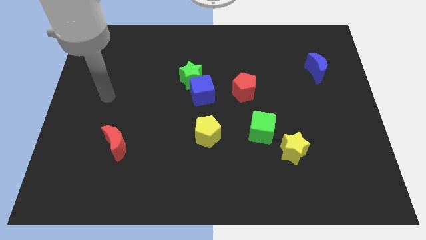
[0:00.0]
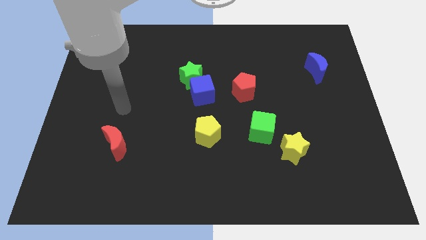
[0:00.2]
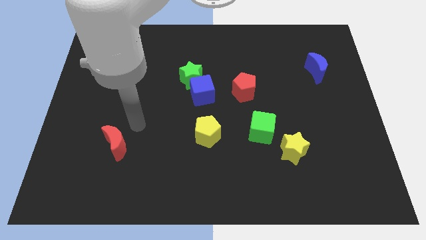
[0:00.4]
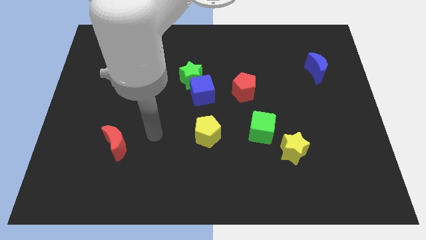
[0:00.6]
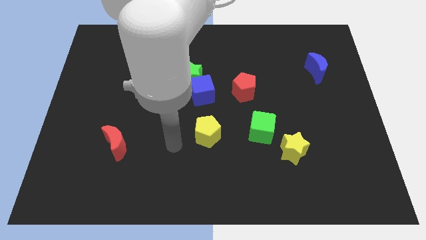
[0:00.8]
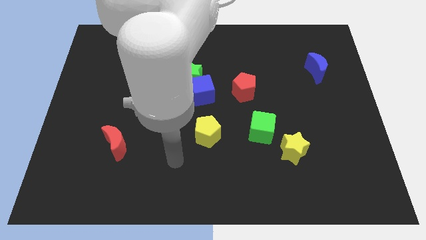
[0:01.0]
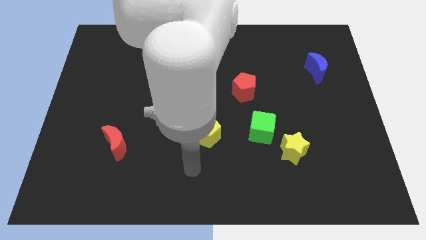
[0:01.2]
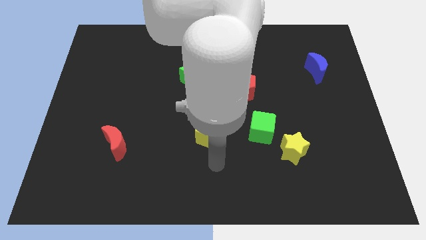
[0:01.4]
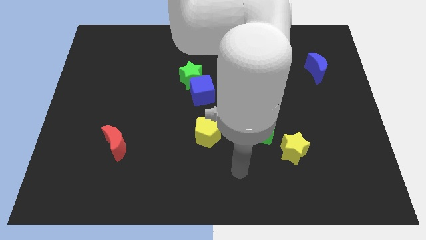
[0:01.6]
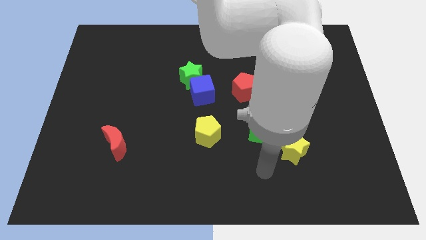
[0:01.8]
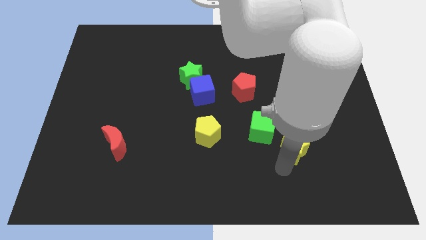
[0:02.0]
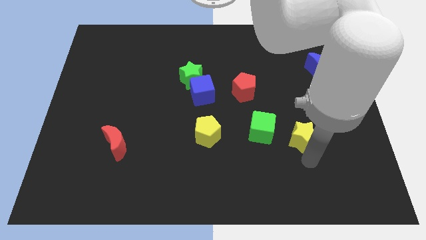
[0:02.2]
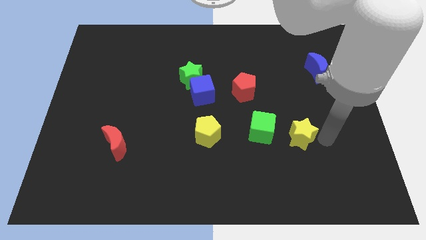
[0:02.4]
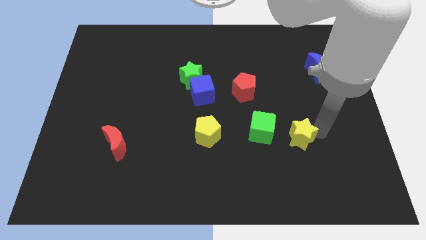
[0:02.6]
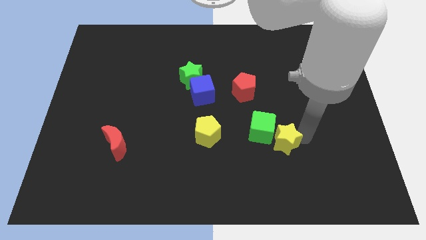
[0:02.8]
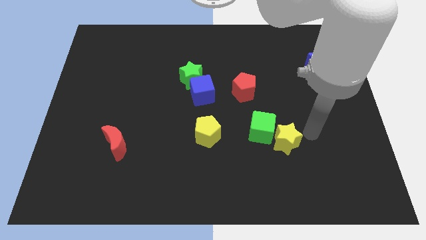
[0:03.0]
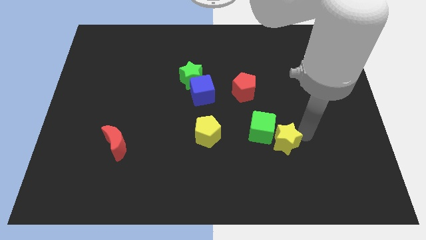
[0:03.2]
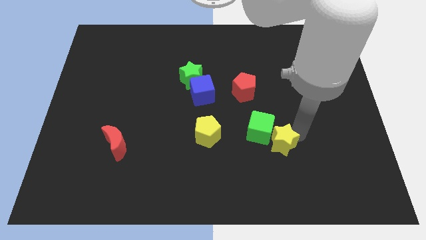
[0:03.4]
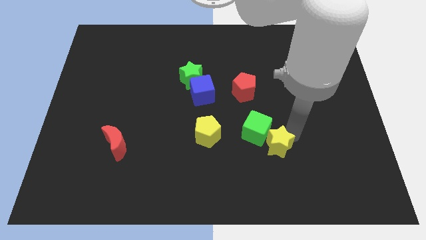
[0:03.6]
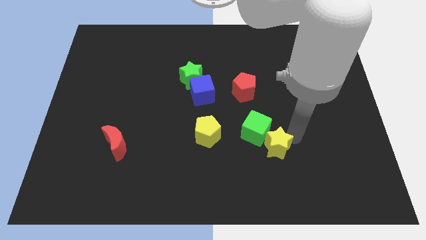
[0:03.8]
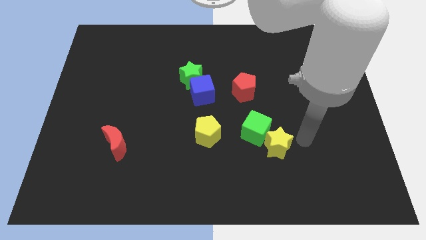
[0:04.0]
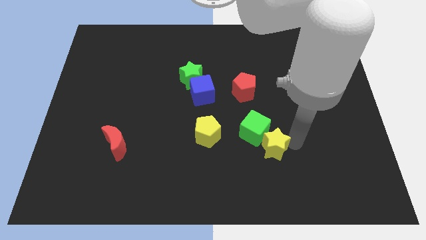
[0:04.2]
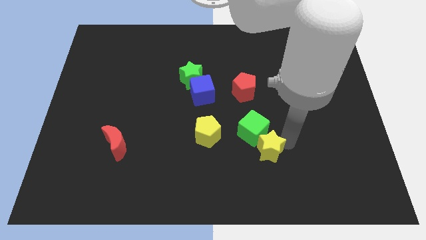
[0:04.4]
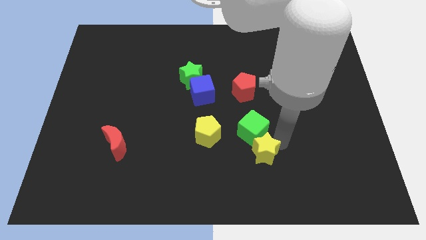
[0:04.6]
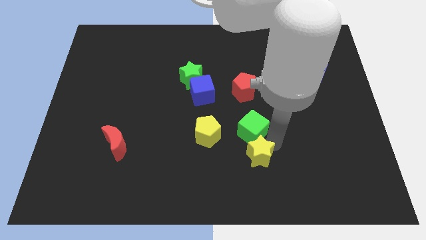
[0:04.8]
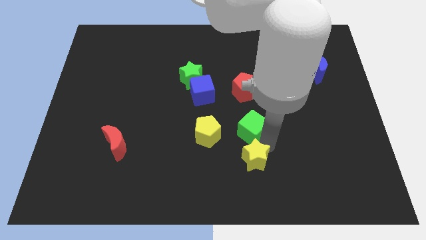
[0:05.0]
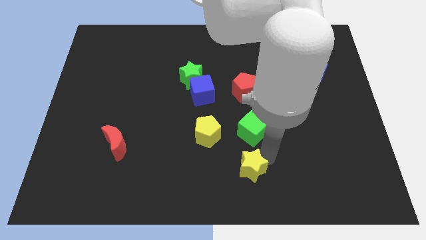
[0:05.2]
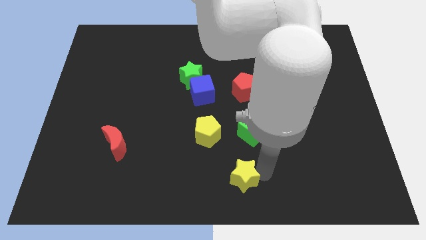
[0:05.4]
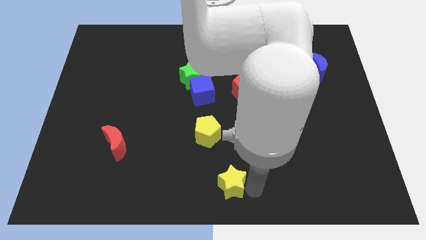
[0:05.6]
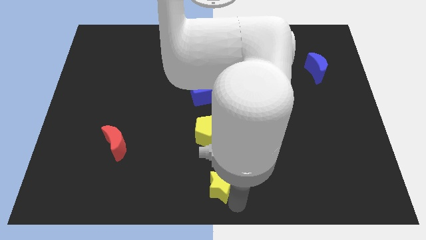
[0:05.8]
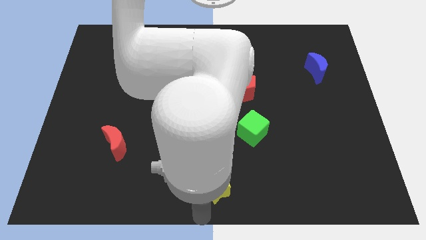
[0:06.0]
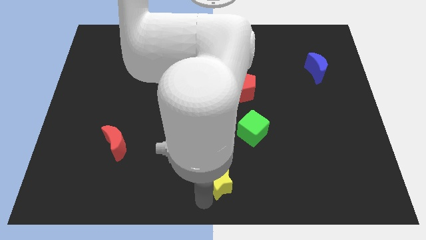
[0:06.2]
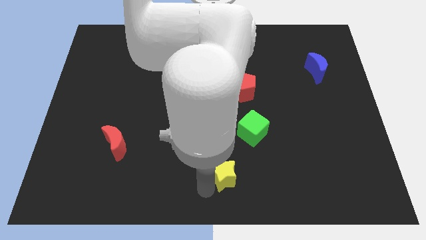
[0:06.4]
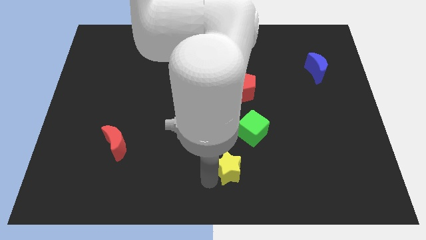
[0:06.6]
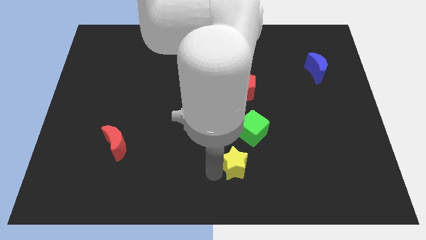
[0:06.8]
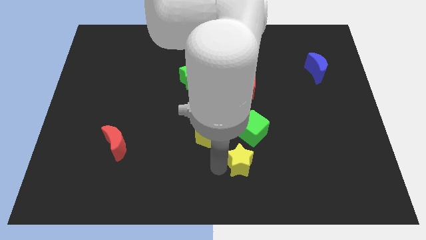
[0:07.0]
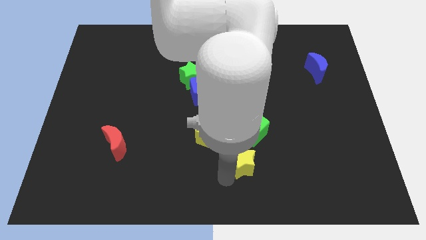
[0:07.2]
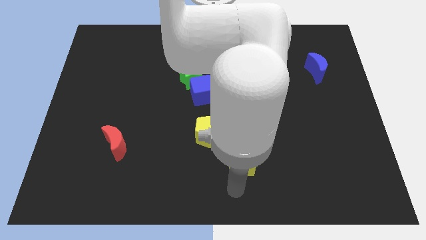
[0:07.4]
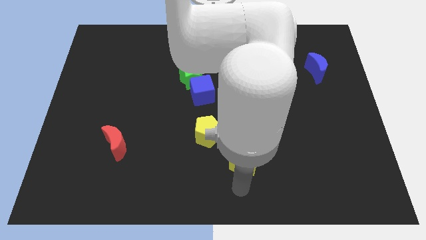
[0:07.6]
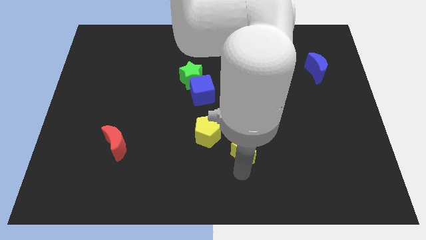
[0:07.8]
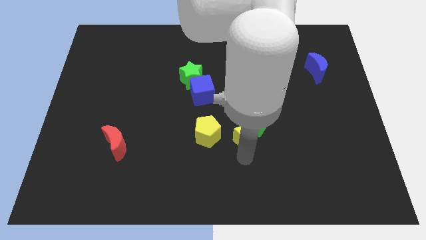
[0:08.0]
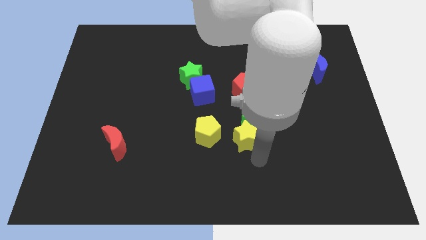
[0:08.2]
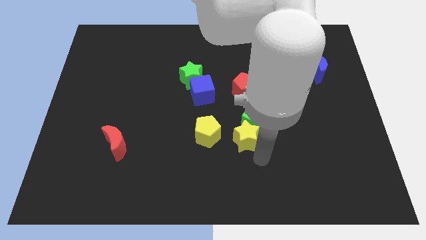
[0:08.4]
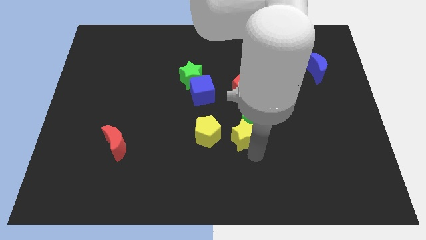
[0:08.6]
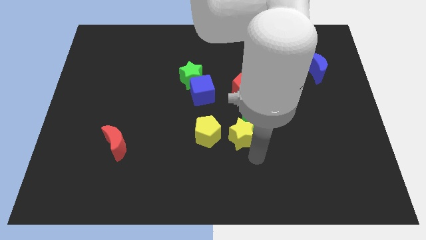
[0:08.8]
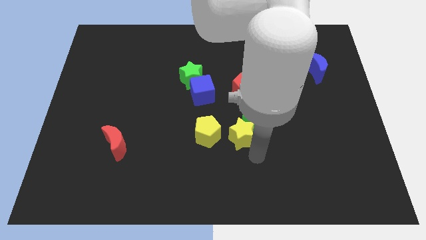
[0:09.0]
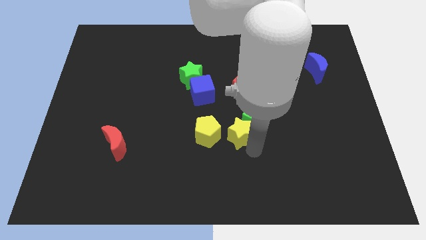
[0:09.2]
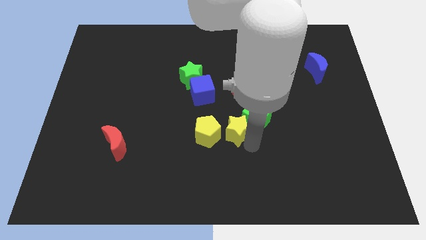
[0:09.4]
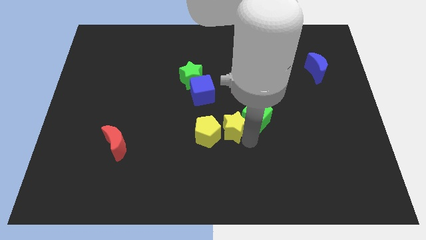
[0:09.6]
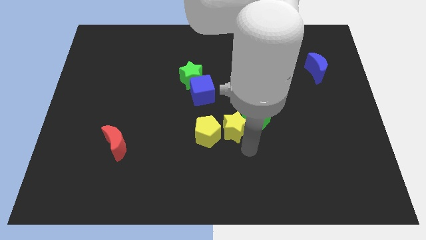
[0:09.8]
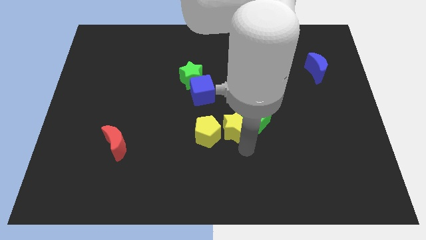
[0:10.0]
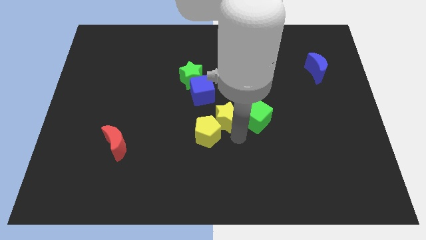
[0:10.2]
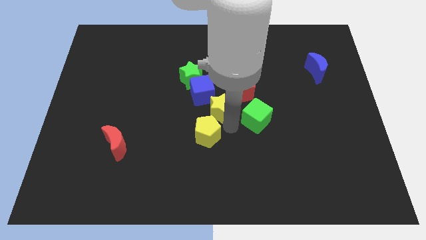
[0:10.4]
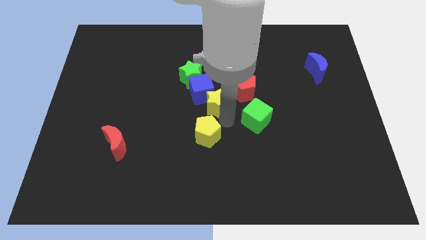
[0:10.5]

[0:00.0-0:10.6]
put the yellow star towards the blue cube

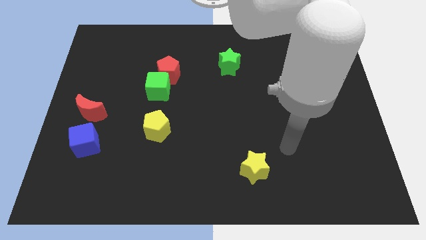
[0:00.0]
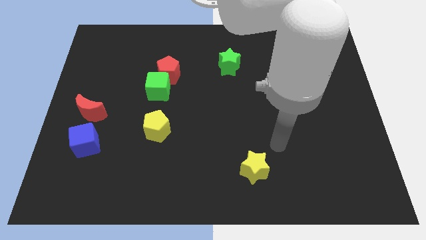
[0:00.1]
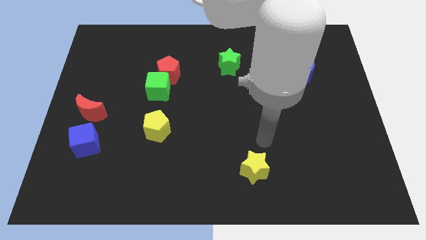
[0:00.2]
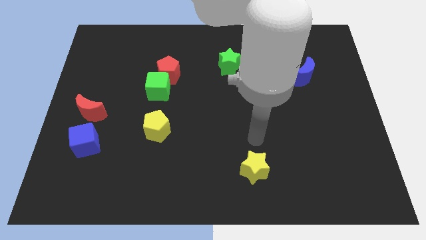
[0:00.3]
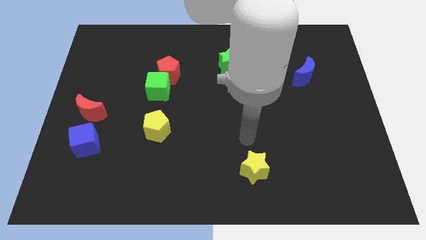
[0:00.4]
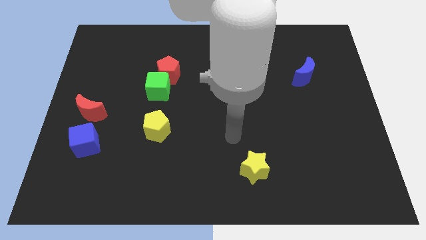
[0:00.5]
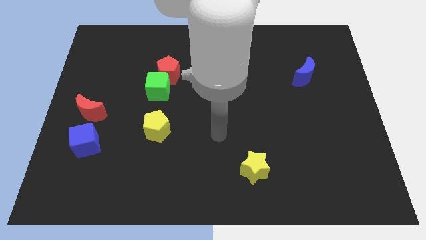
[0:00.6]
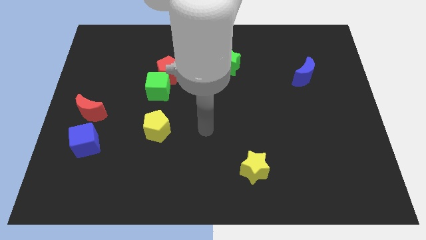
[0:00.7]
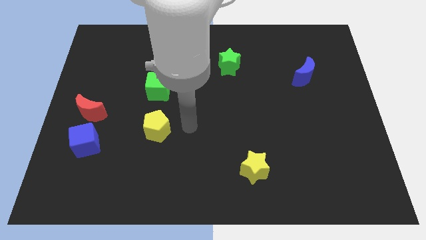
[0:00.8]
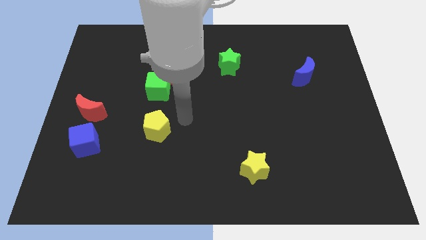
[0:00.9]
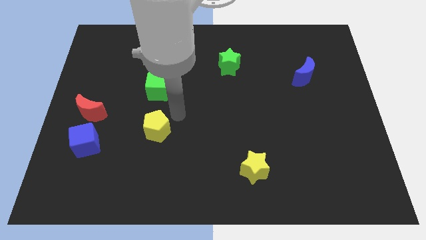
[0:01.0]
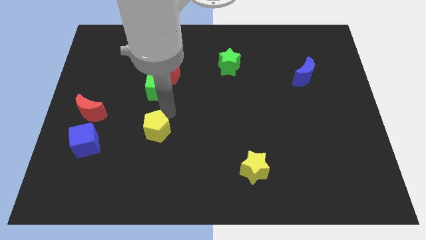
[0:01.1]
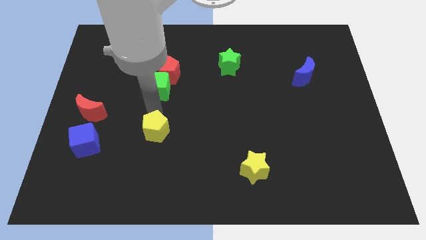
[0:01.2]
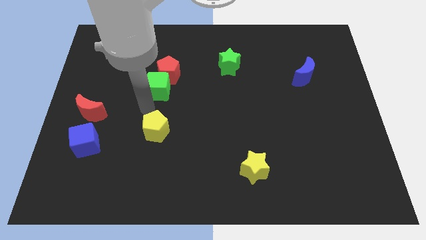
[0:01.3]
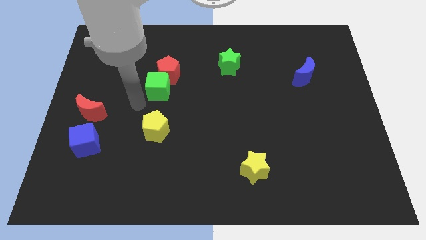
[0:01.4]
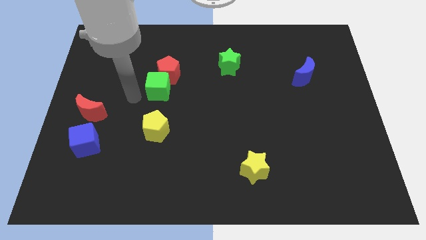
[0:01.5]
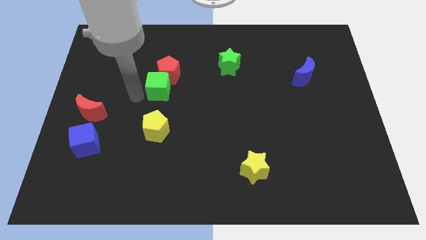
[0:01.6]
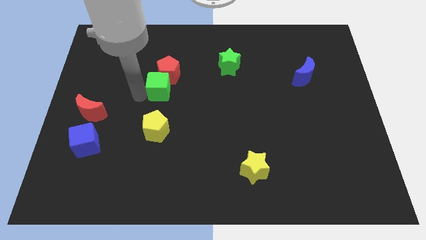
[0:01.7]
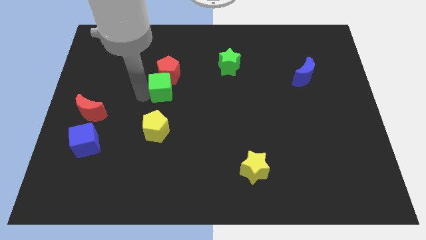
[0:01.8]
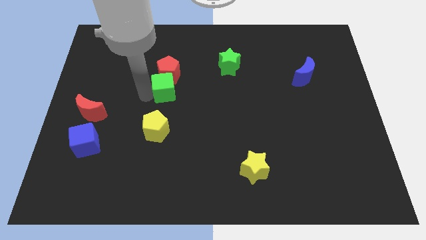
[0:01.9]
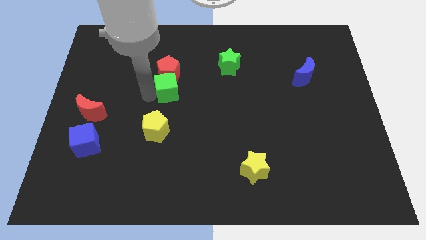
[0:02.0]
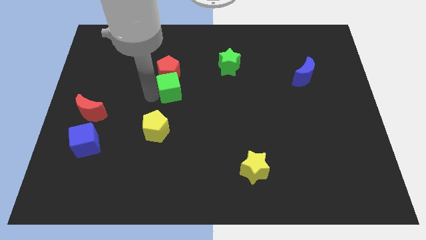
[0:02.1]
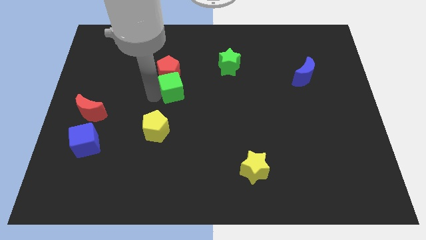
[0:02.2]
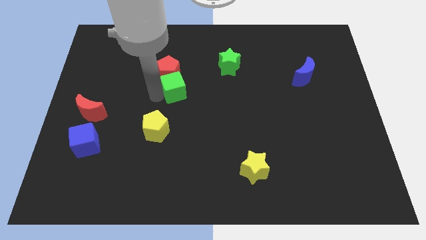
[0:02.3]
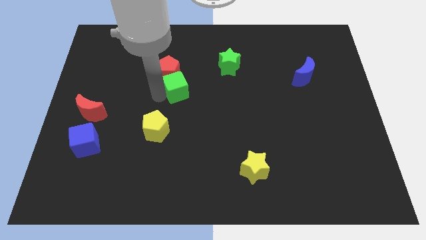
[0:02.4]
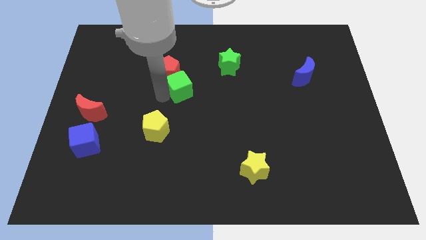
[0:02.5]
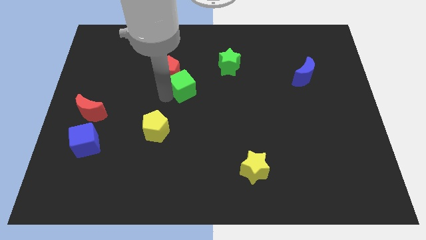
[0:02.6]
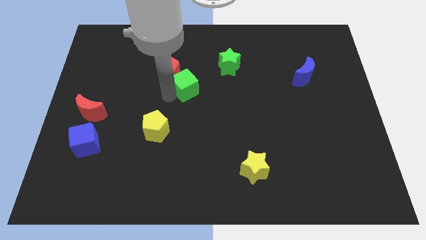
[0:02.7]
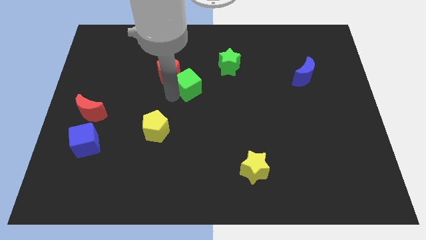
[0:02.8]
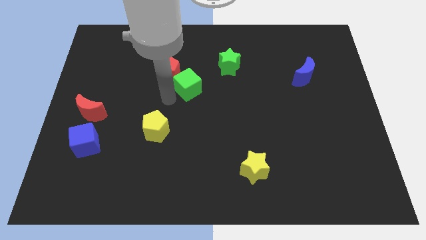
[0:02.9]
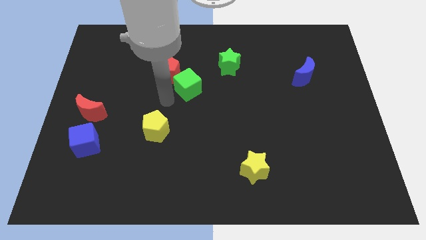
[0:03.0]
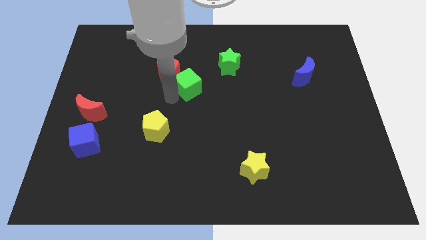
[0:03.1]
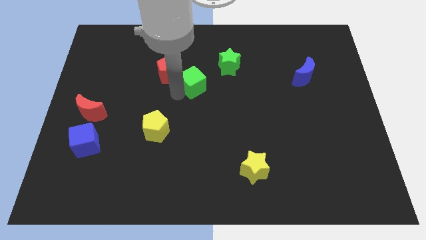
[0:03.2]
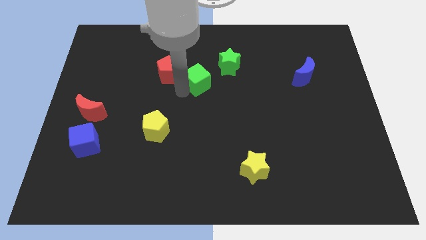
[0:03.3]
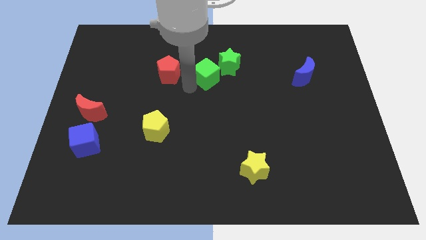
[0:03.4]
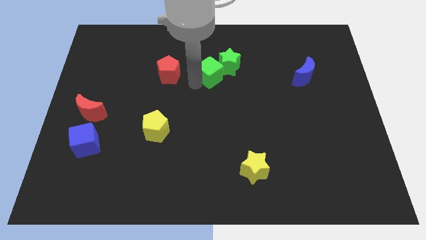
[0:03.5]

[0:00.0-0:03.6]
move the green cube next to the green star
